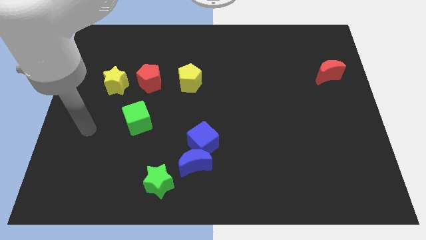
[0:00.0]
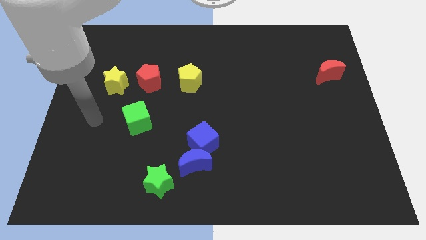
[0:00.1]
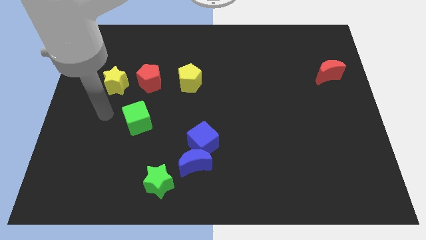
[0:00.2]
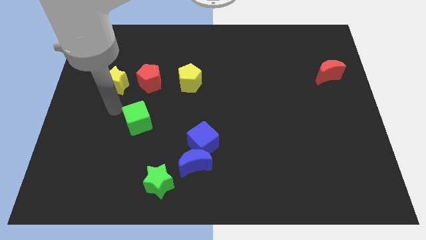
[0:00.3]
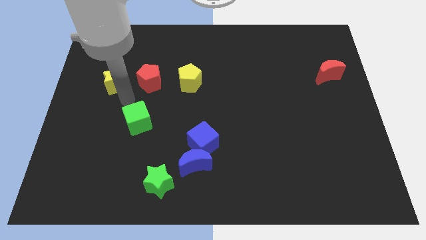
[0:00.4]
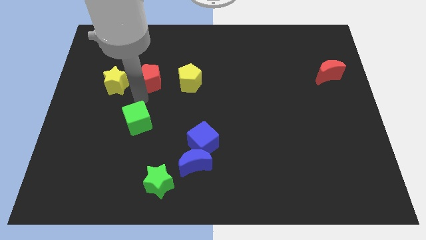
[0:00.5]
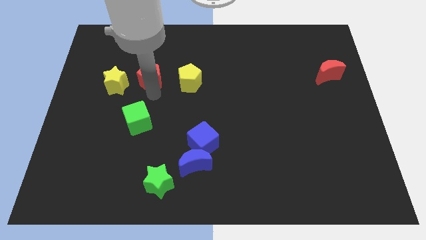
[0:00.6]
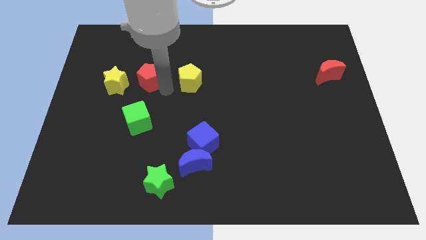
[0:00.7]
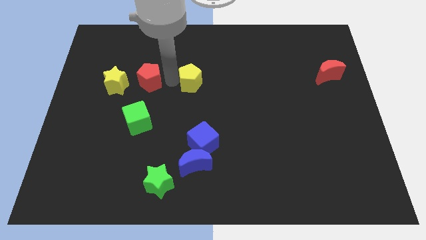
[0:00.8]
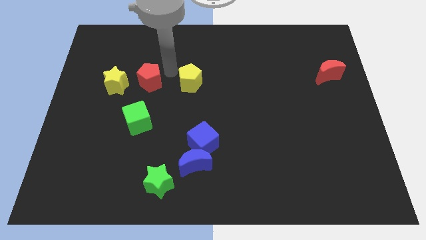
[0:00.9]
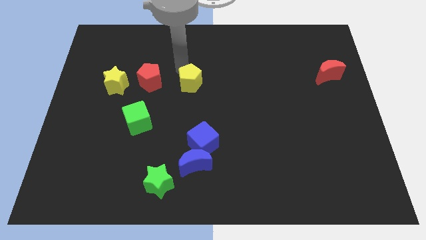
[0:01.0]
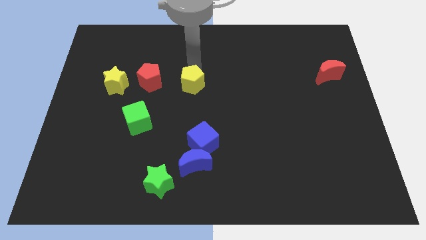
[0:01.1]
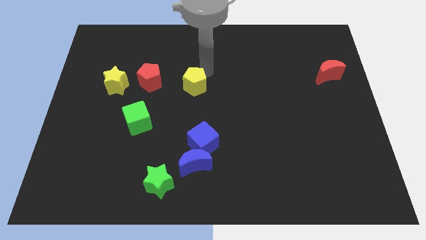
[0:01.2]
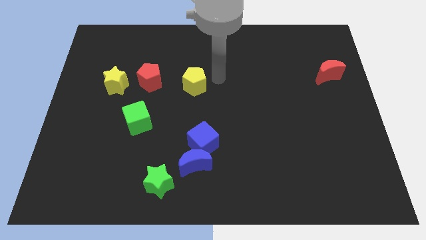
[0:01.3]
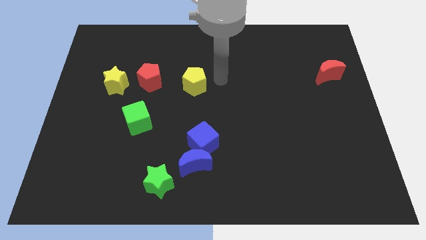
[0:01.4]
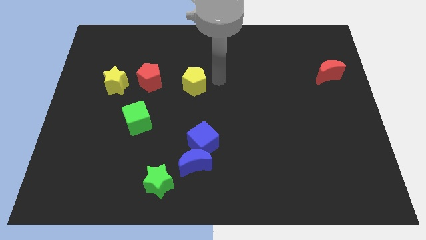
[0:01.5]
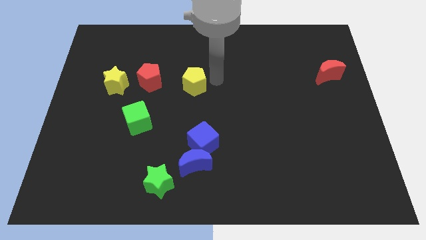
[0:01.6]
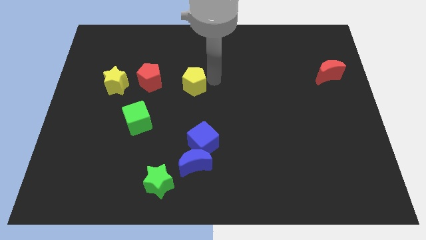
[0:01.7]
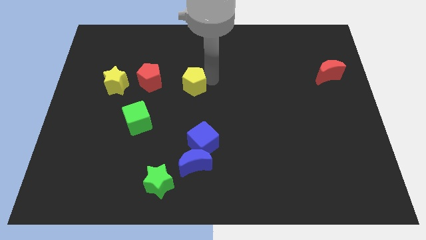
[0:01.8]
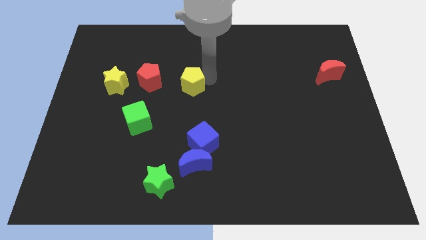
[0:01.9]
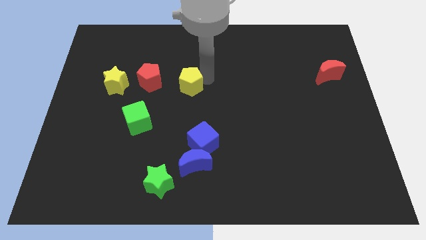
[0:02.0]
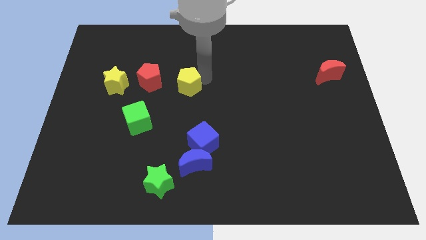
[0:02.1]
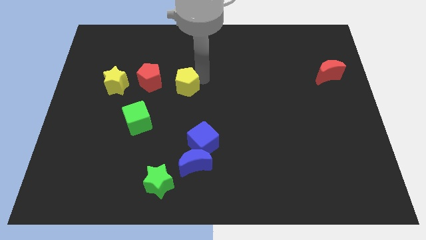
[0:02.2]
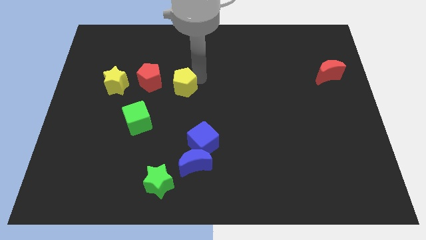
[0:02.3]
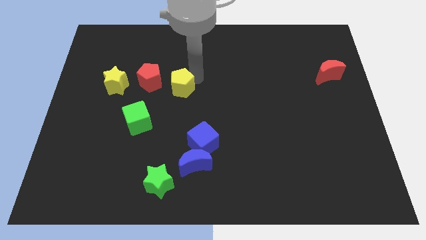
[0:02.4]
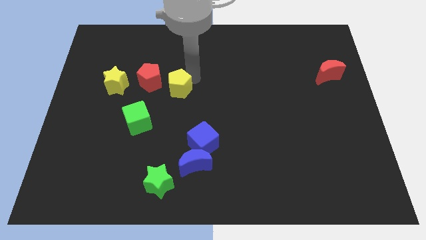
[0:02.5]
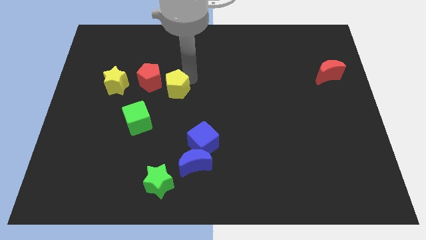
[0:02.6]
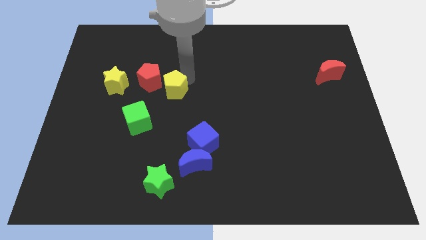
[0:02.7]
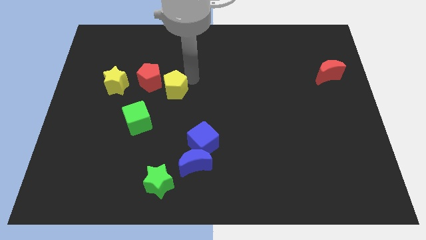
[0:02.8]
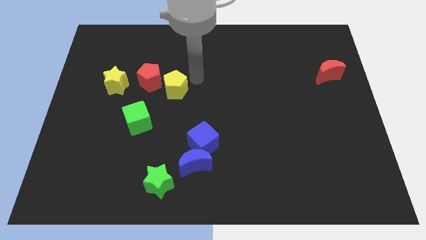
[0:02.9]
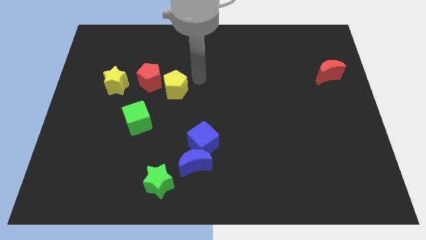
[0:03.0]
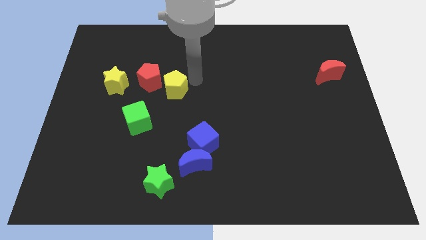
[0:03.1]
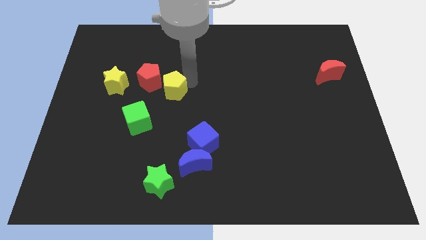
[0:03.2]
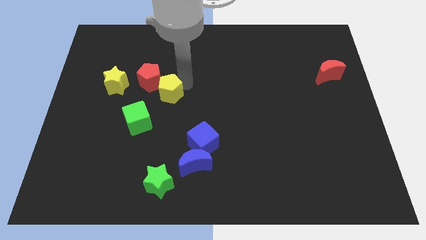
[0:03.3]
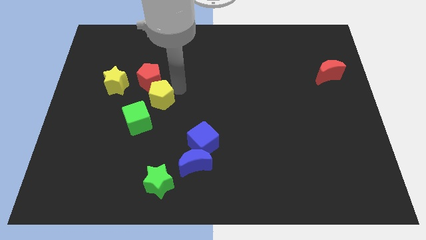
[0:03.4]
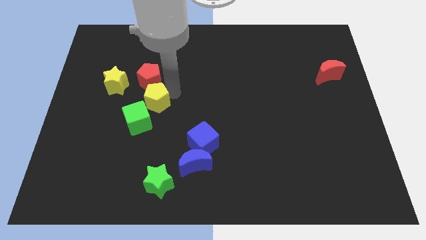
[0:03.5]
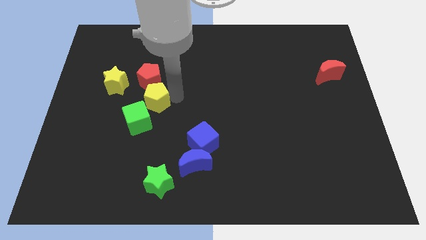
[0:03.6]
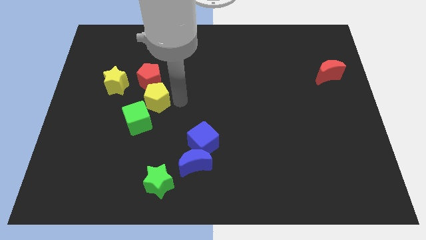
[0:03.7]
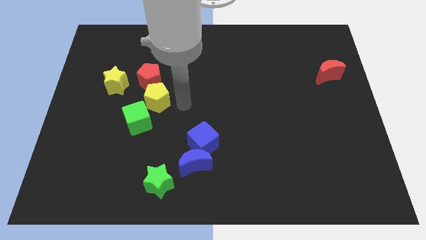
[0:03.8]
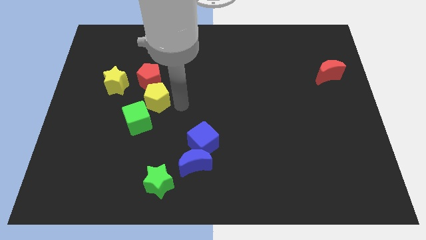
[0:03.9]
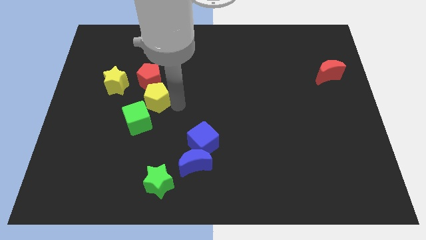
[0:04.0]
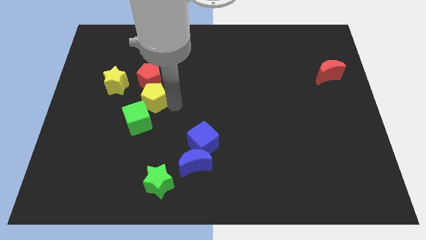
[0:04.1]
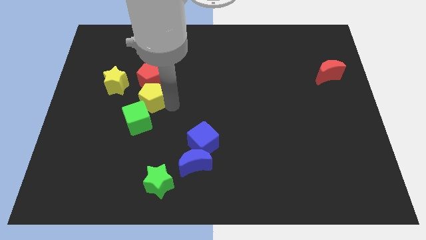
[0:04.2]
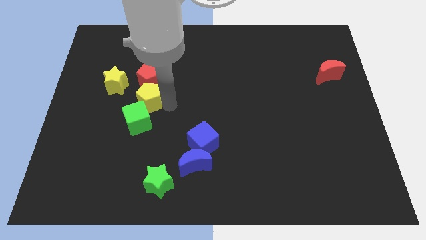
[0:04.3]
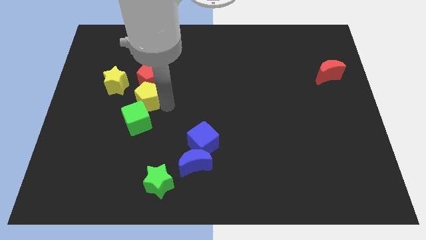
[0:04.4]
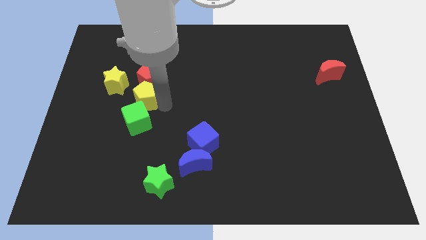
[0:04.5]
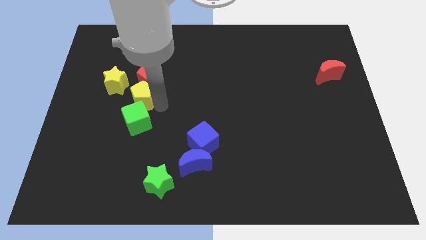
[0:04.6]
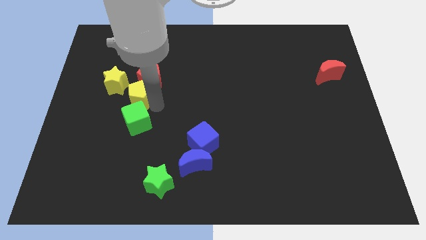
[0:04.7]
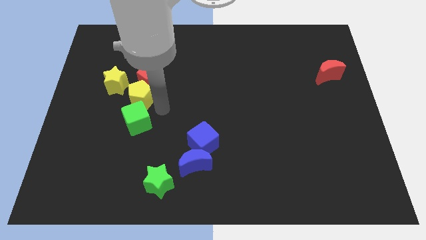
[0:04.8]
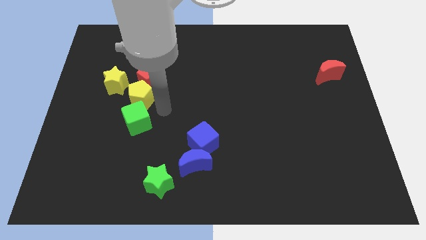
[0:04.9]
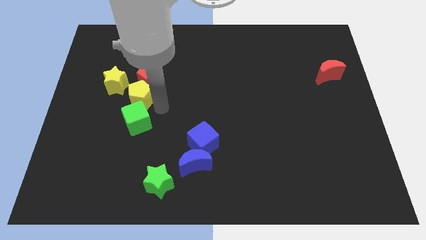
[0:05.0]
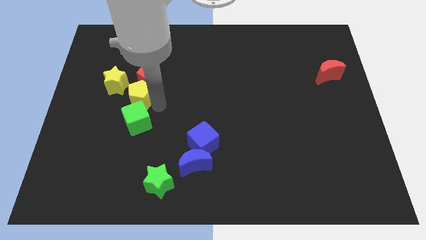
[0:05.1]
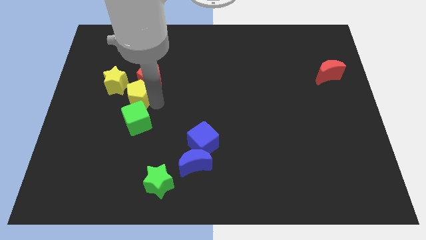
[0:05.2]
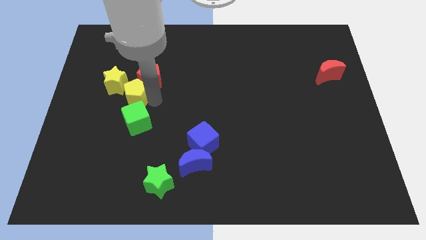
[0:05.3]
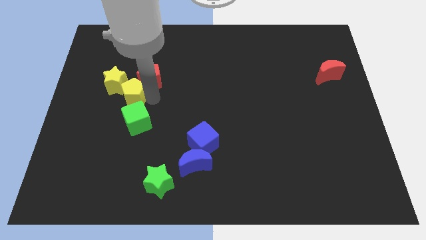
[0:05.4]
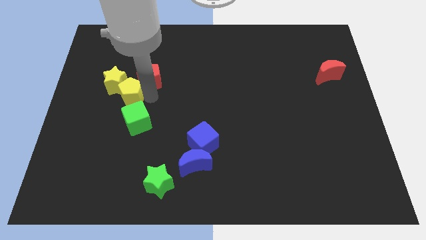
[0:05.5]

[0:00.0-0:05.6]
slide the yellow pentagon next to the yellow star

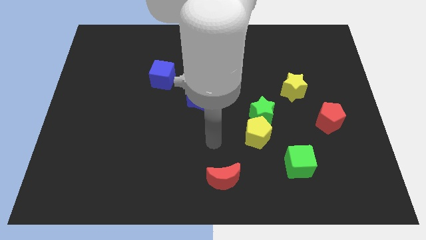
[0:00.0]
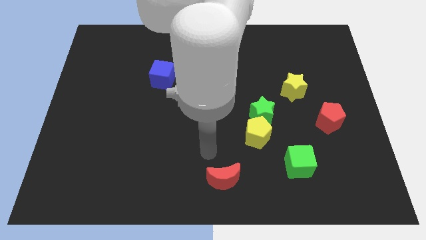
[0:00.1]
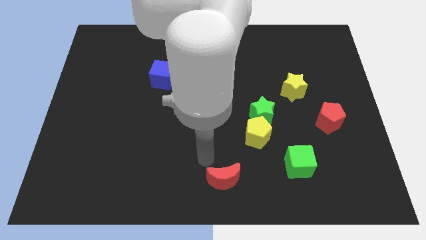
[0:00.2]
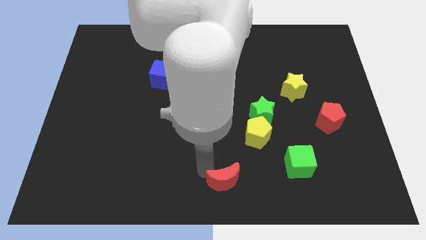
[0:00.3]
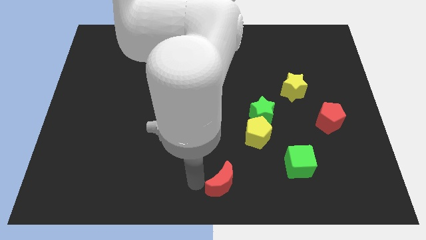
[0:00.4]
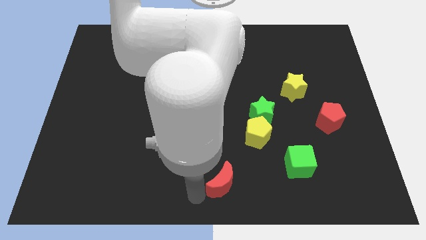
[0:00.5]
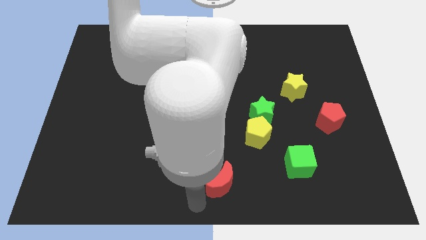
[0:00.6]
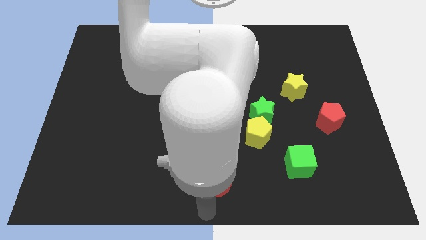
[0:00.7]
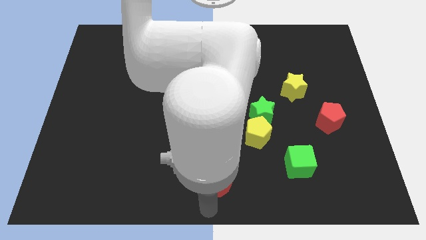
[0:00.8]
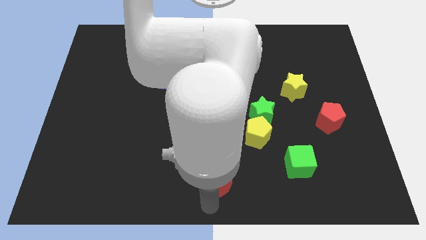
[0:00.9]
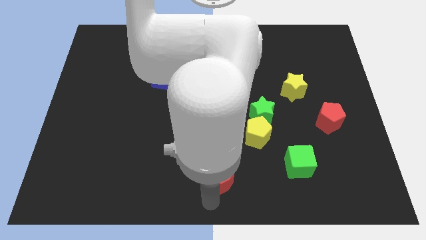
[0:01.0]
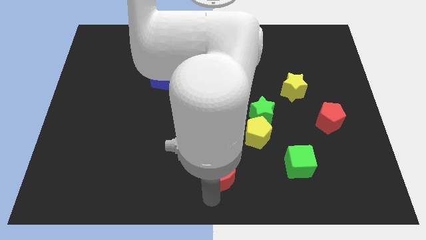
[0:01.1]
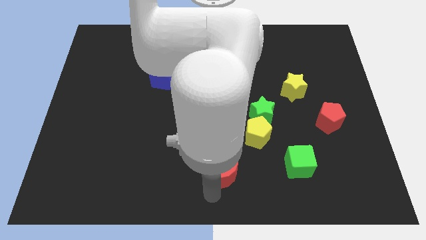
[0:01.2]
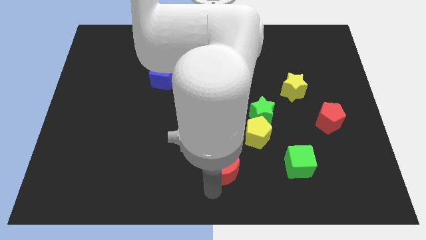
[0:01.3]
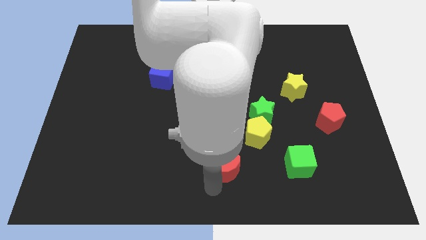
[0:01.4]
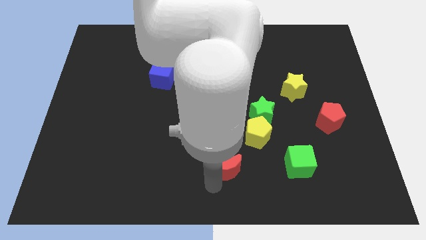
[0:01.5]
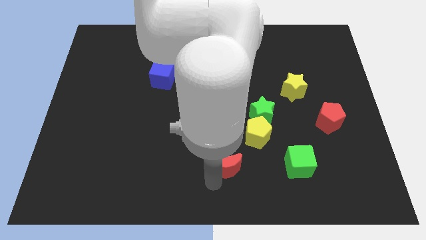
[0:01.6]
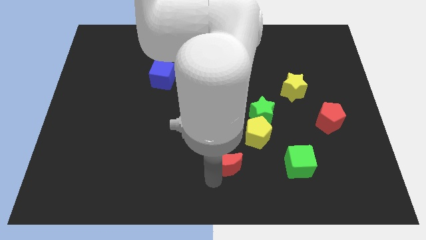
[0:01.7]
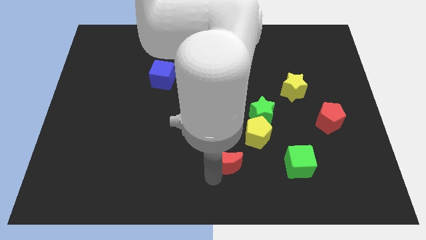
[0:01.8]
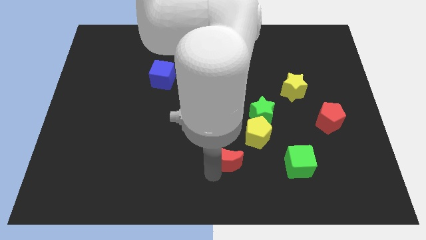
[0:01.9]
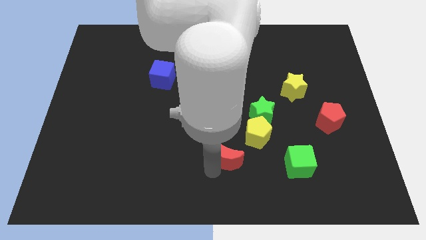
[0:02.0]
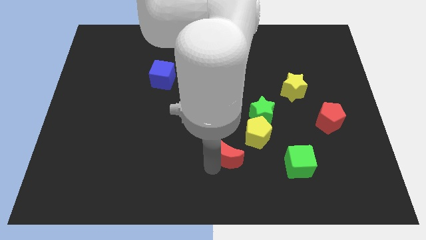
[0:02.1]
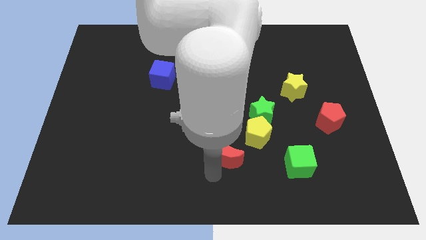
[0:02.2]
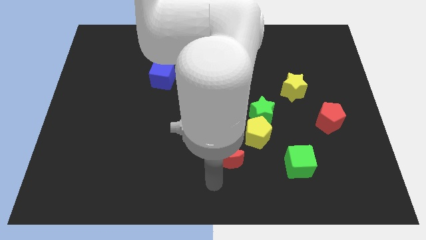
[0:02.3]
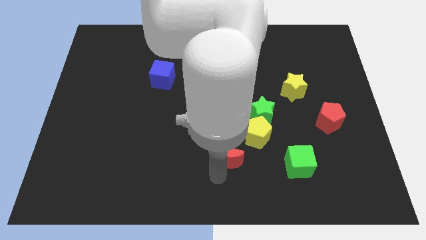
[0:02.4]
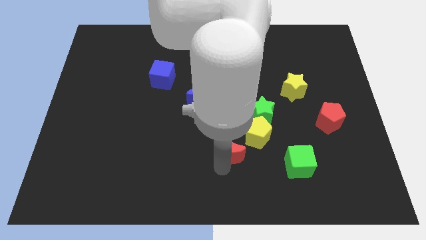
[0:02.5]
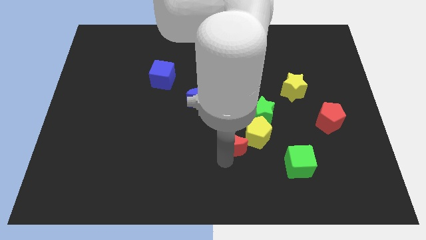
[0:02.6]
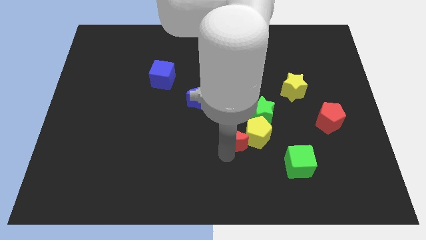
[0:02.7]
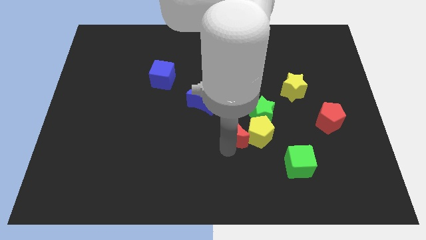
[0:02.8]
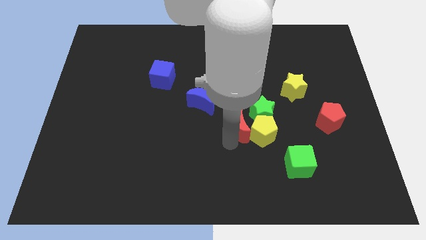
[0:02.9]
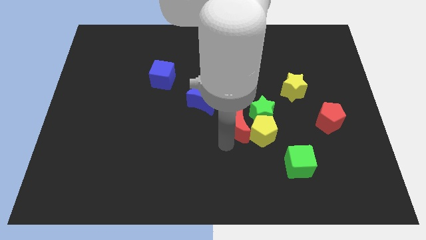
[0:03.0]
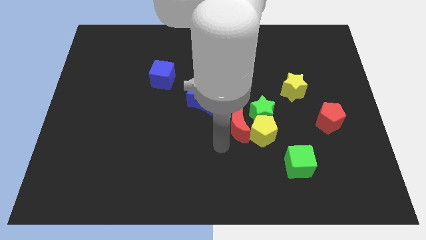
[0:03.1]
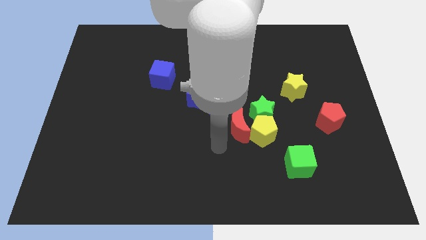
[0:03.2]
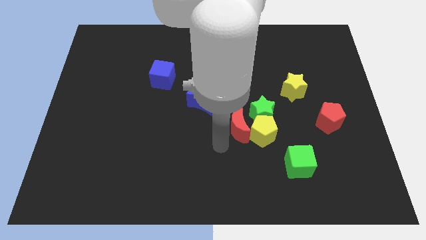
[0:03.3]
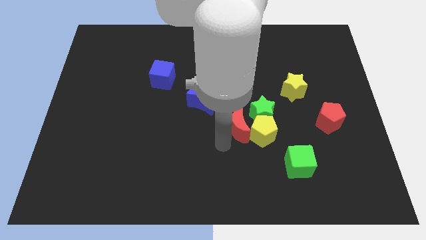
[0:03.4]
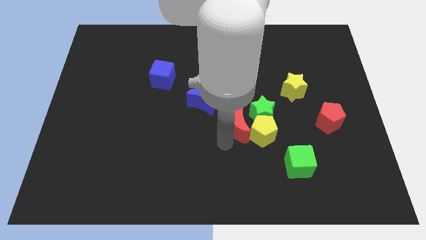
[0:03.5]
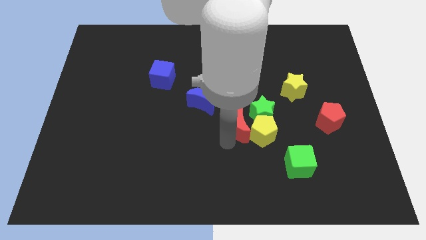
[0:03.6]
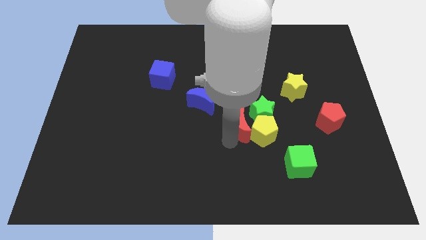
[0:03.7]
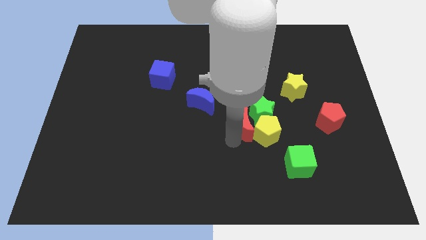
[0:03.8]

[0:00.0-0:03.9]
slide the red moon towards the green star
